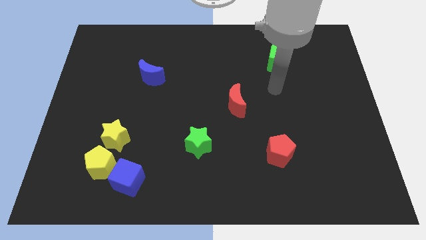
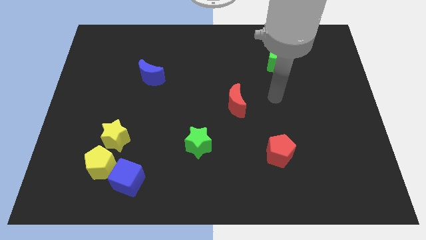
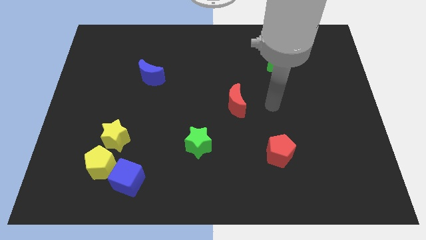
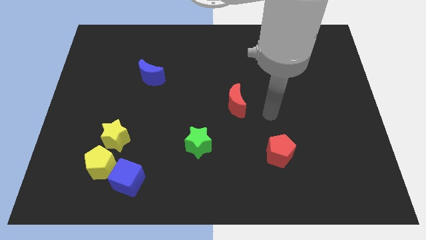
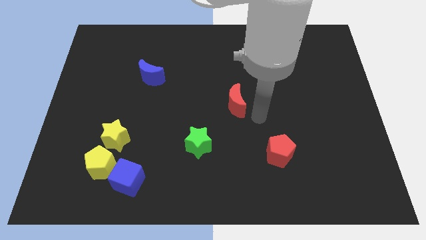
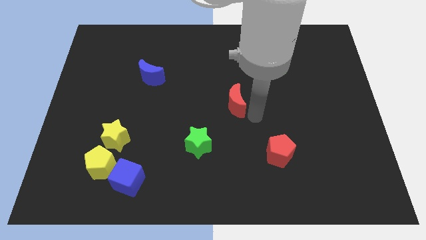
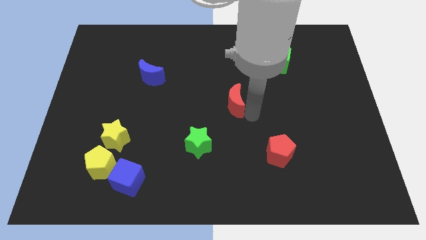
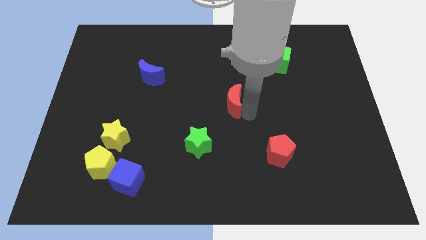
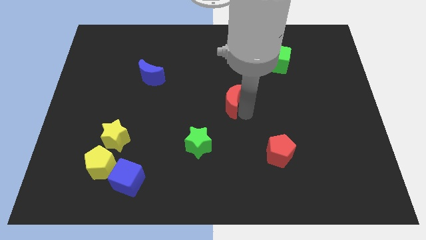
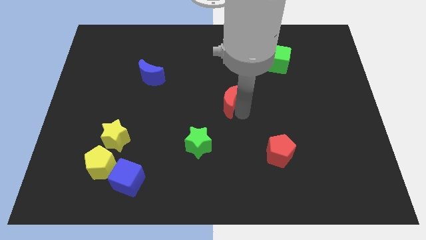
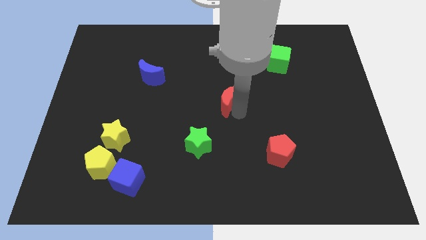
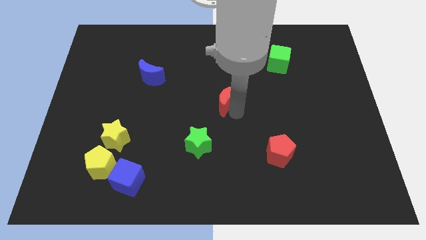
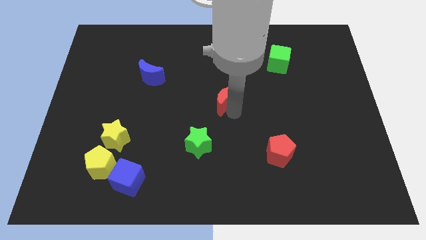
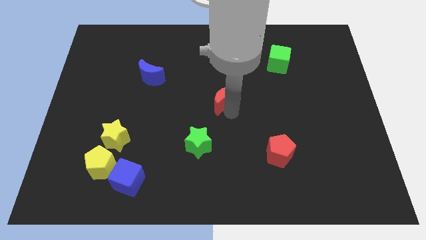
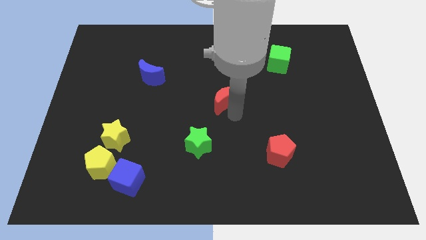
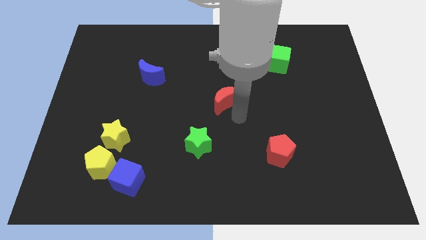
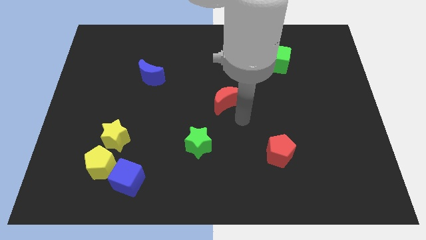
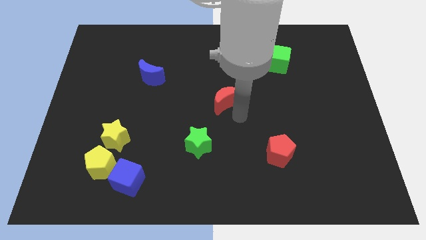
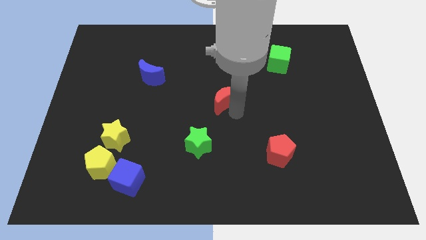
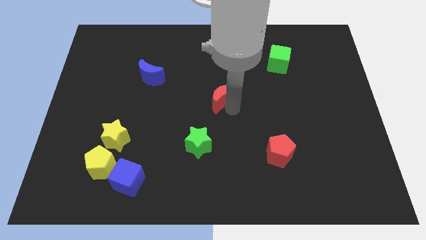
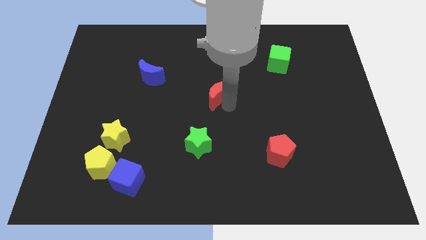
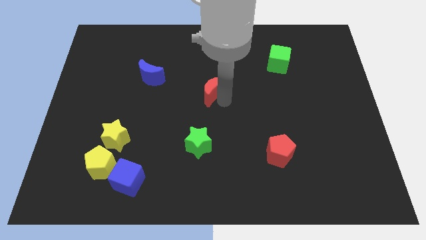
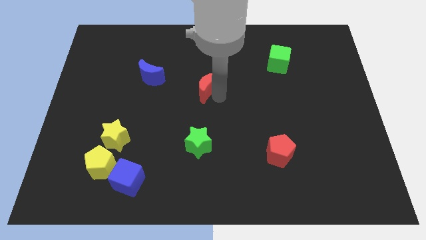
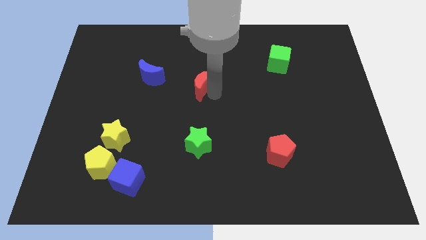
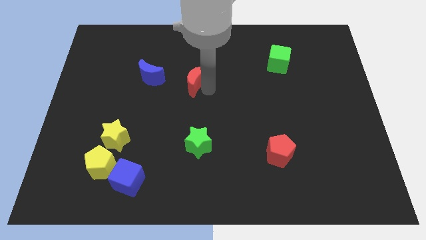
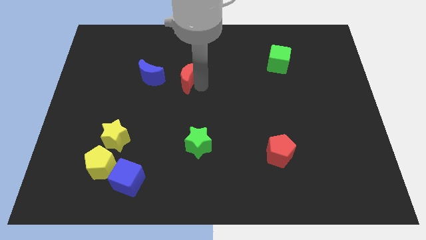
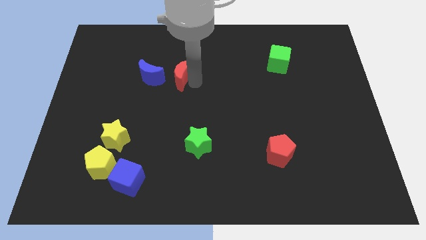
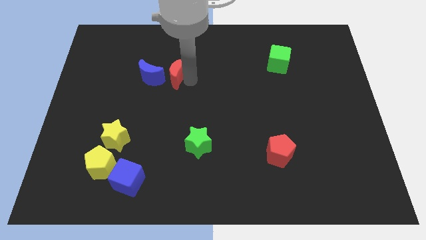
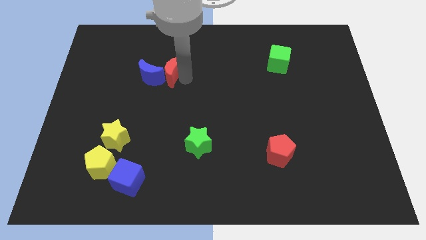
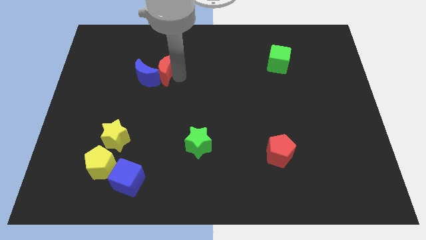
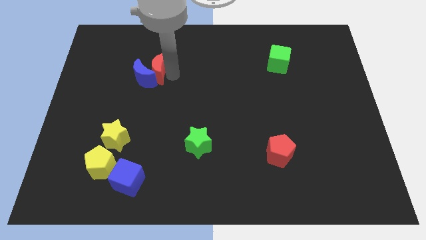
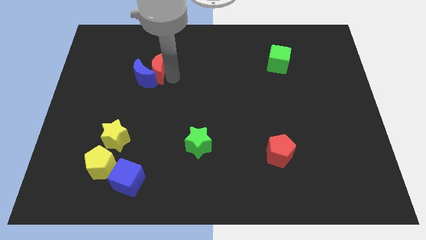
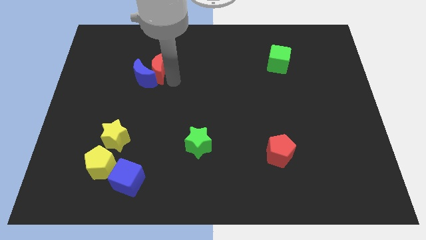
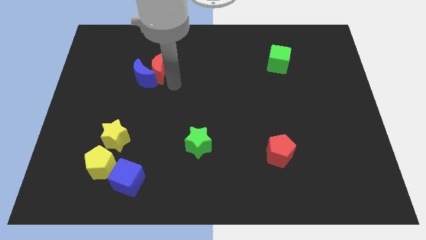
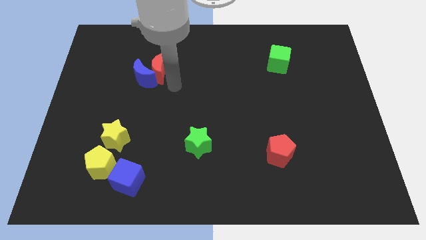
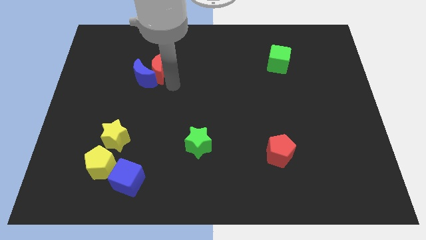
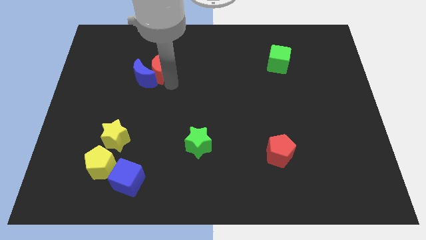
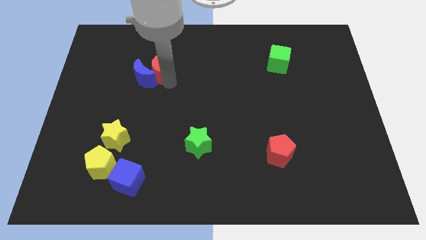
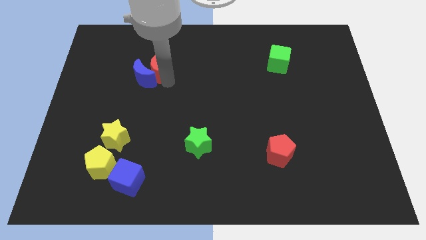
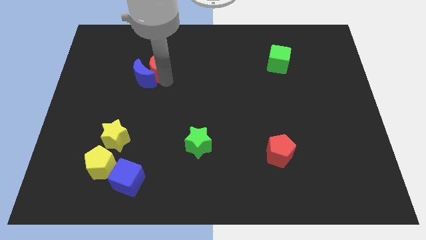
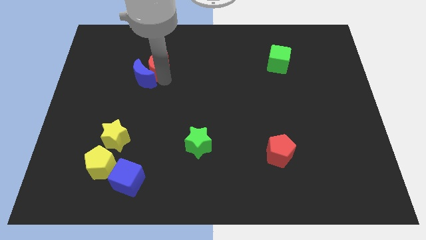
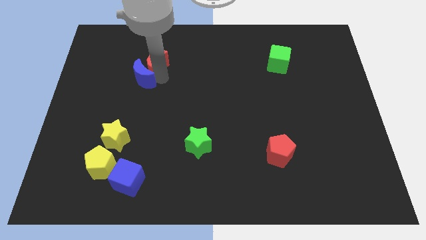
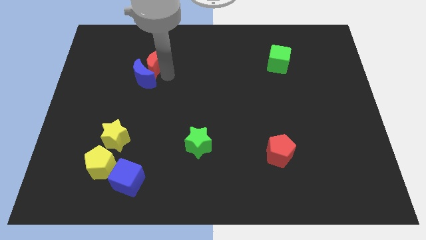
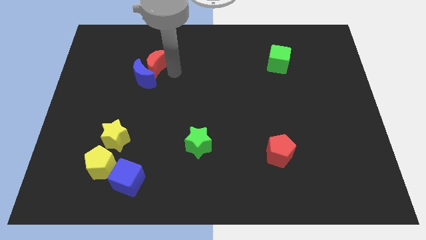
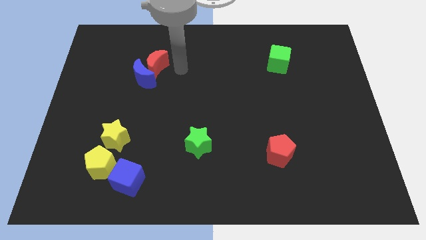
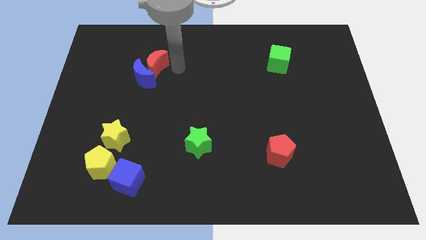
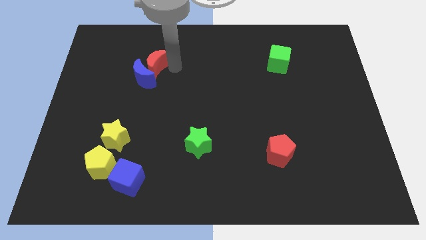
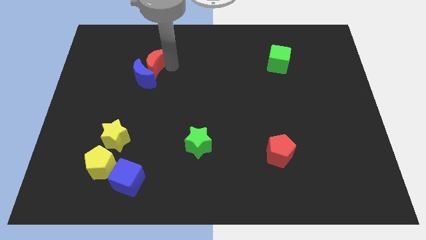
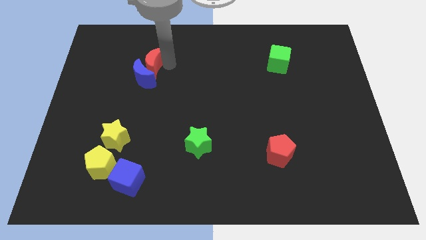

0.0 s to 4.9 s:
slide the red moon diagonally up and to the left of the blue moon

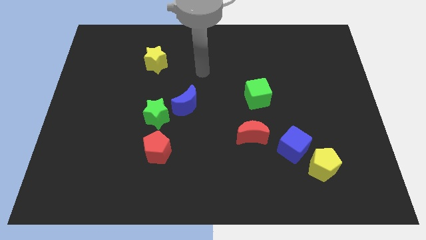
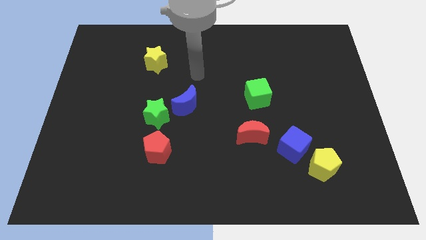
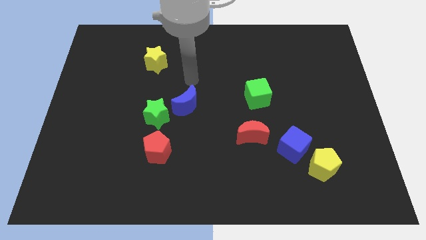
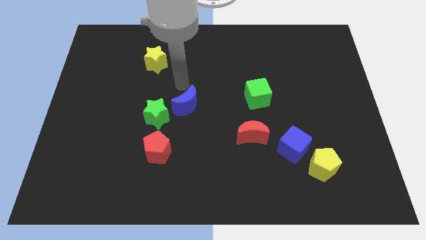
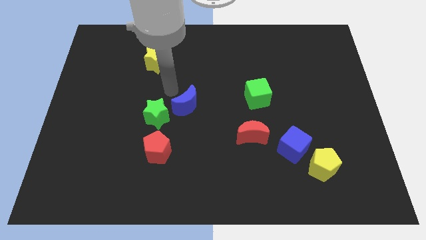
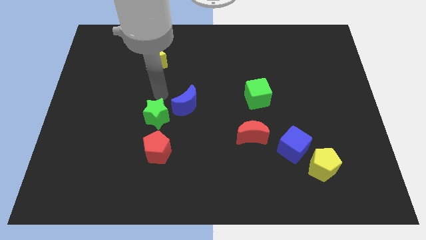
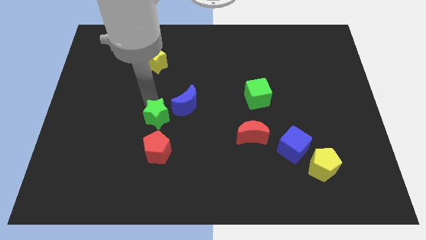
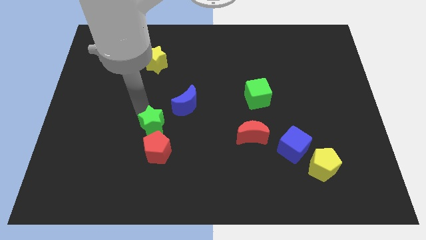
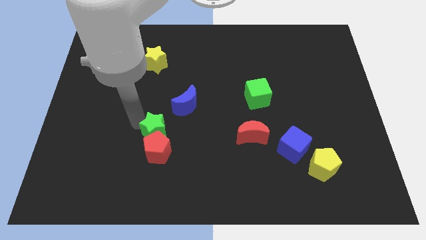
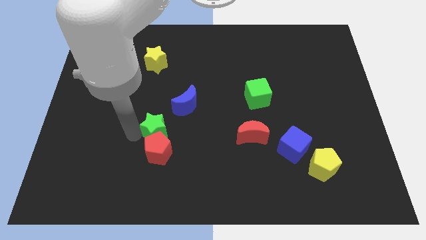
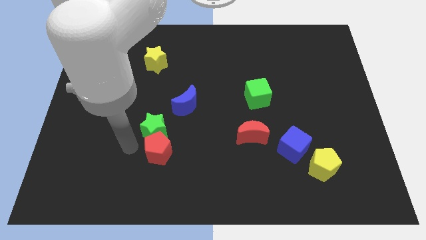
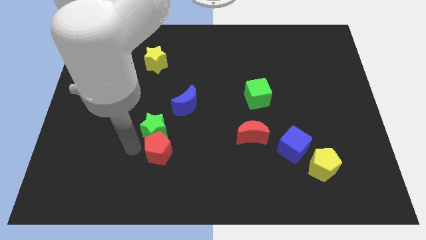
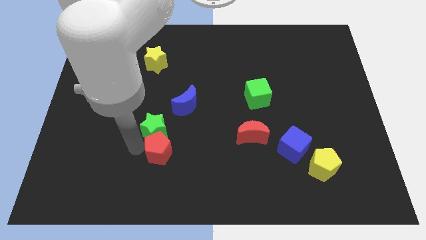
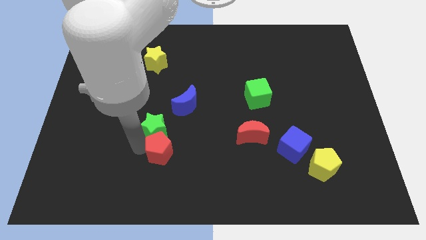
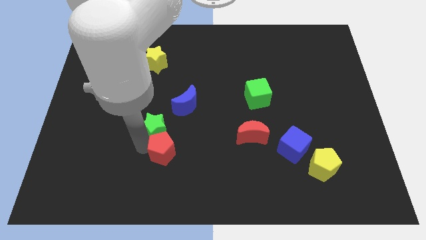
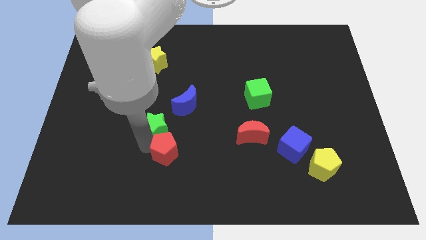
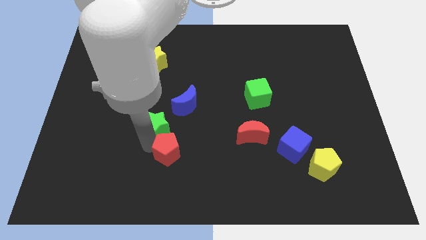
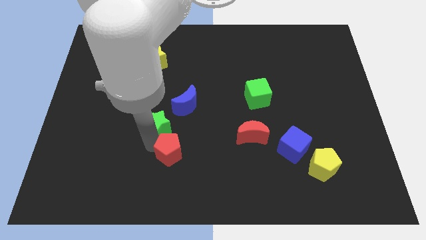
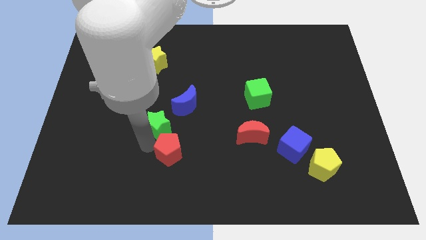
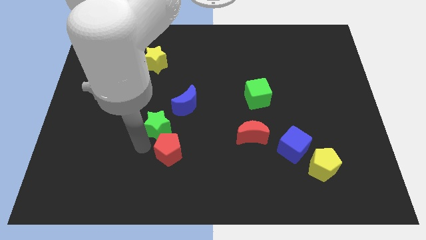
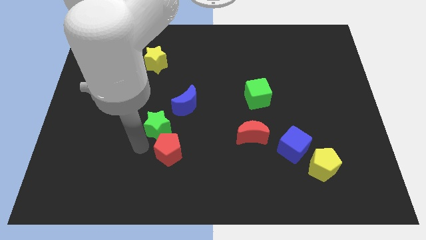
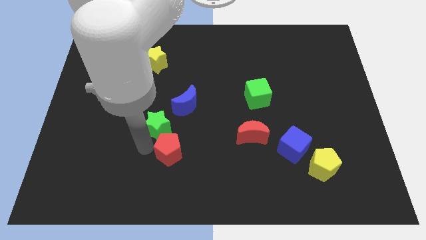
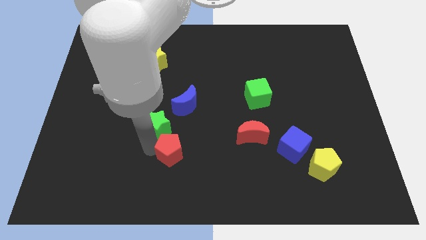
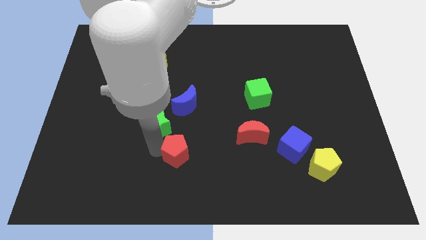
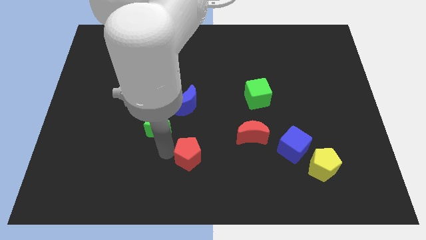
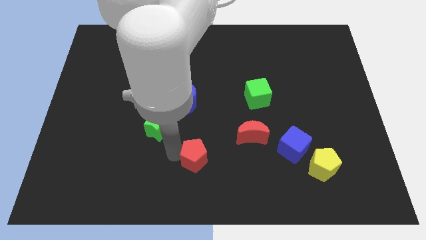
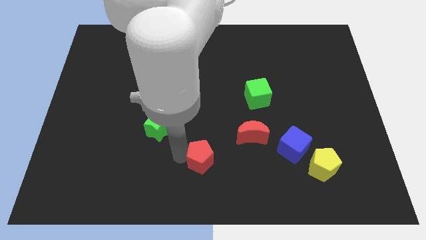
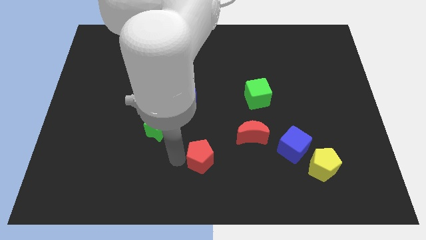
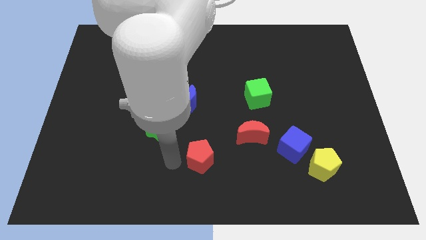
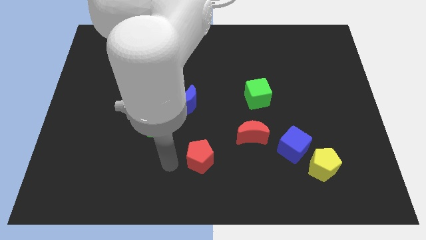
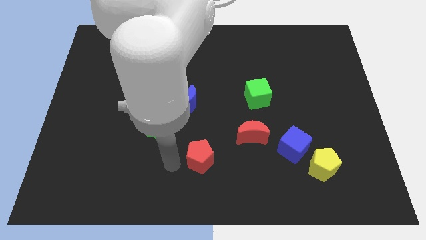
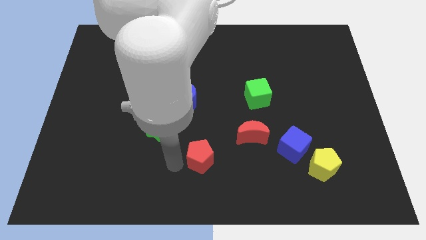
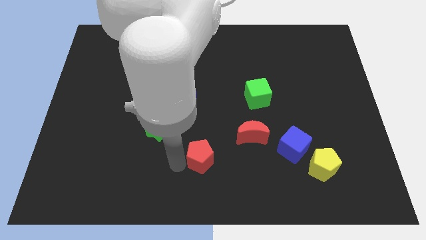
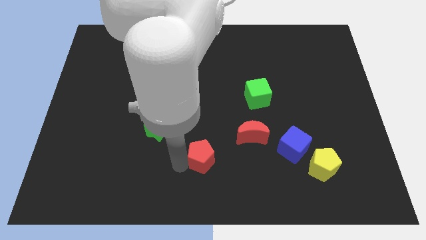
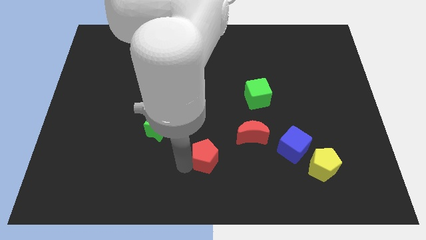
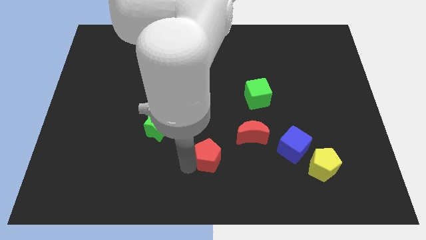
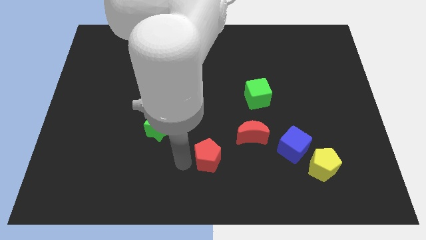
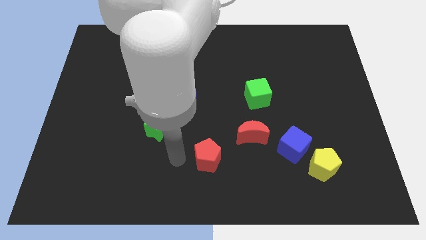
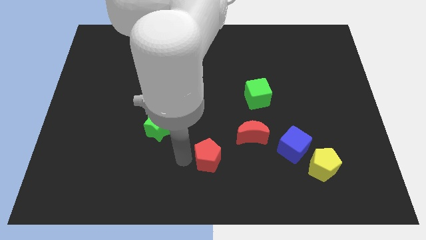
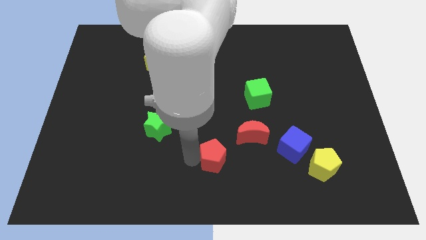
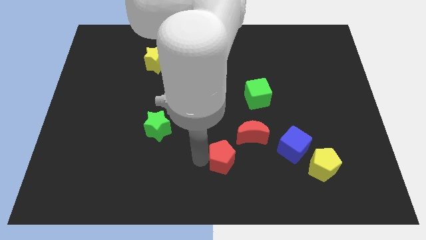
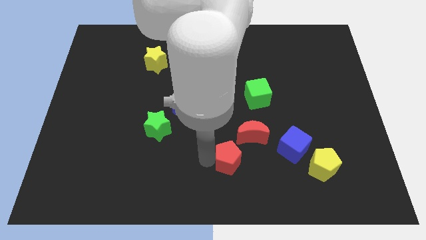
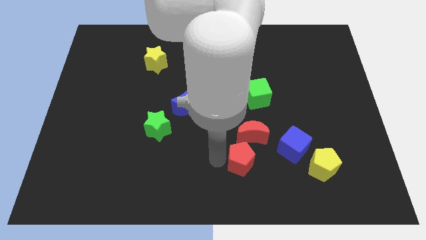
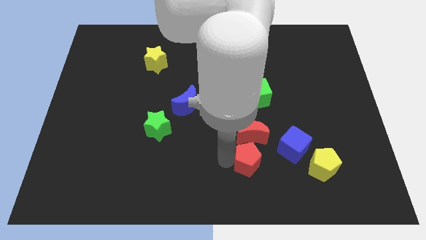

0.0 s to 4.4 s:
slide the red pentagon to the left side of the yellow pentagon
